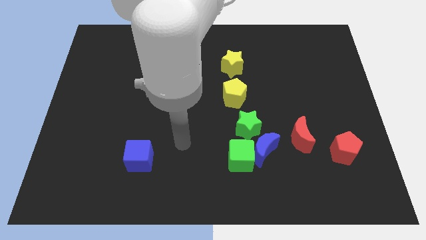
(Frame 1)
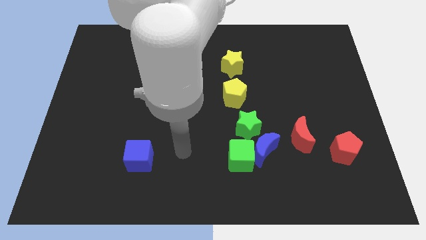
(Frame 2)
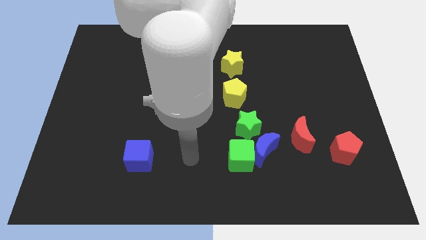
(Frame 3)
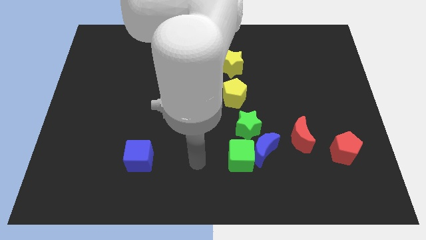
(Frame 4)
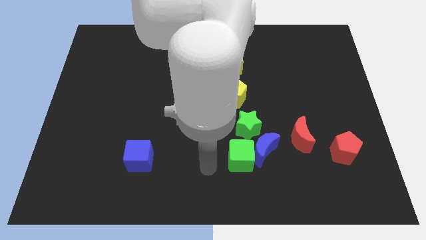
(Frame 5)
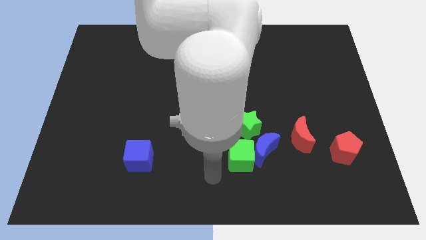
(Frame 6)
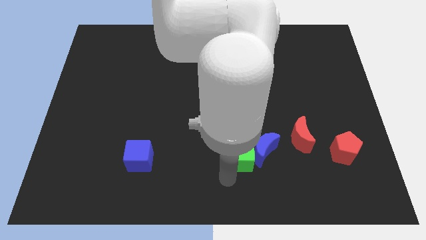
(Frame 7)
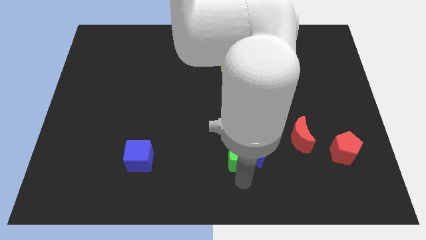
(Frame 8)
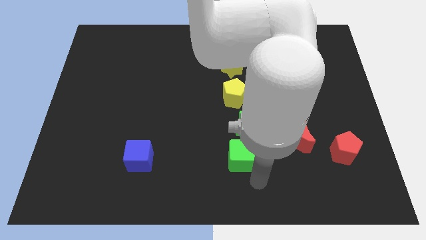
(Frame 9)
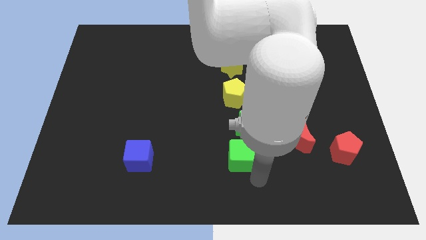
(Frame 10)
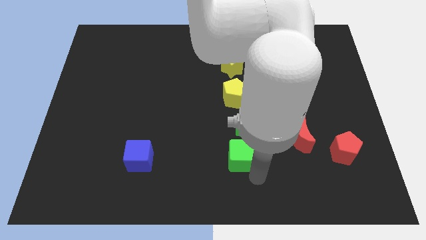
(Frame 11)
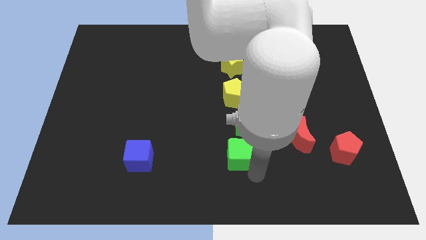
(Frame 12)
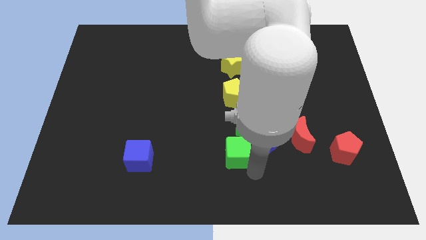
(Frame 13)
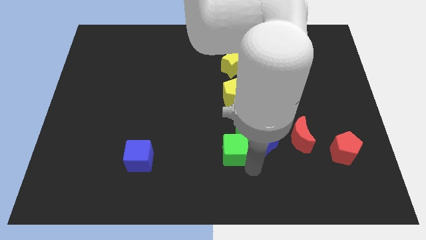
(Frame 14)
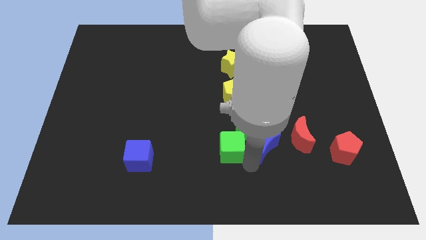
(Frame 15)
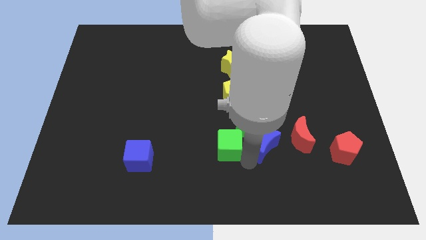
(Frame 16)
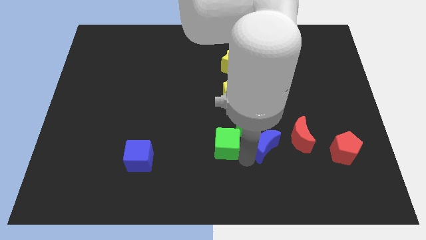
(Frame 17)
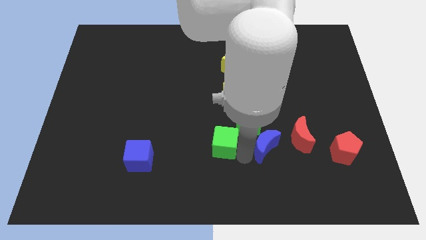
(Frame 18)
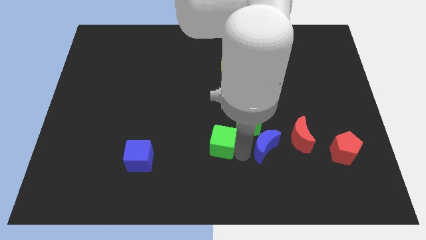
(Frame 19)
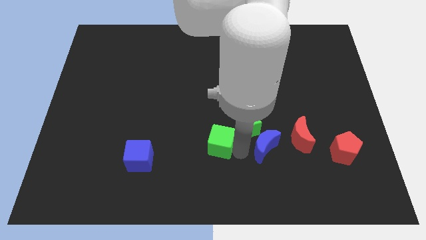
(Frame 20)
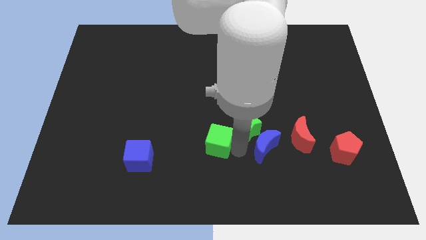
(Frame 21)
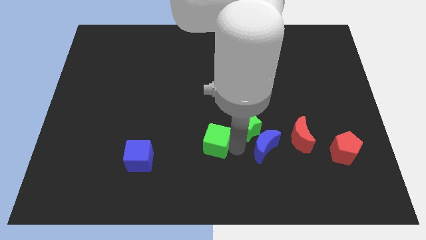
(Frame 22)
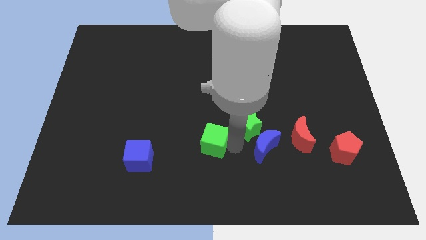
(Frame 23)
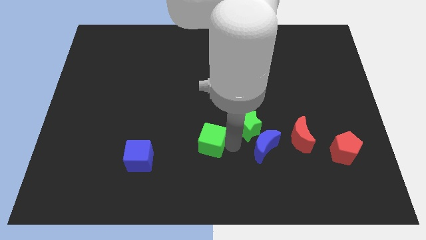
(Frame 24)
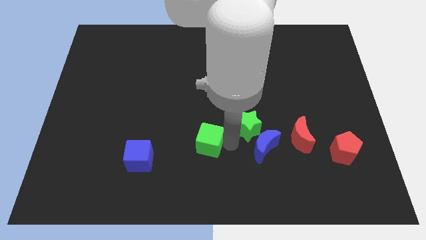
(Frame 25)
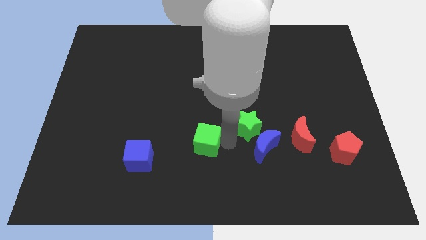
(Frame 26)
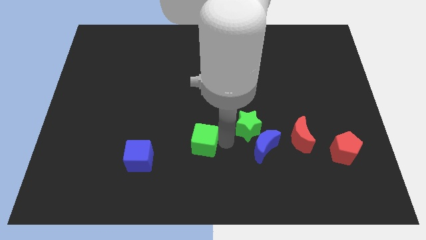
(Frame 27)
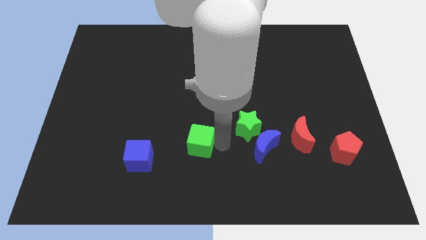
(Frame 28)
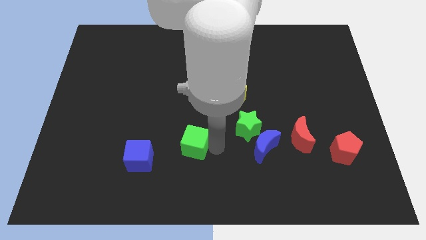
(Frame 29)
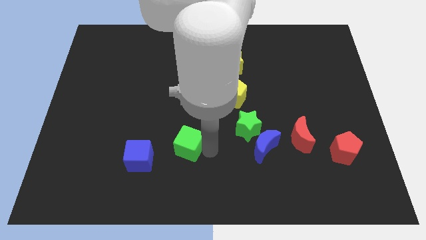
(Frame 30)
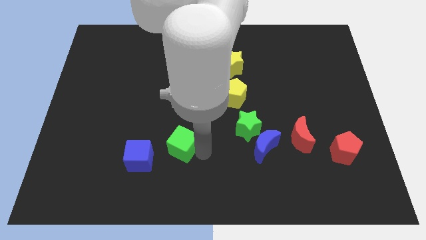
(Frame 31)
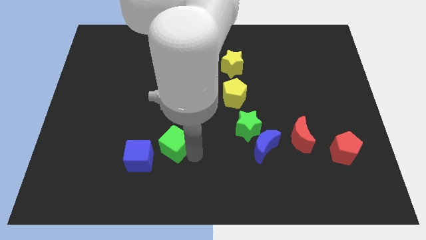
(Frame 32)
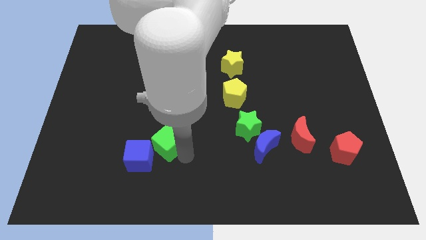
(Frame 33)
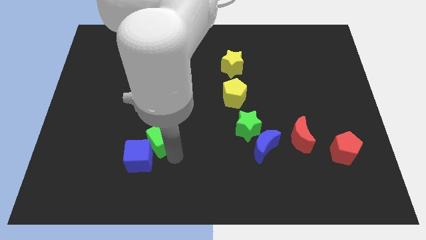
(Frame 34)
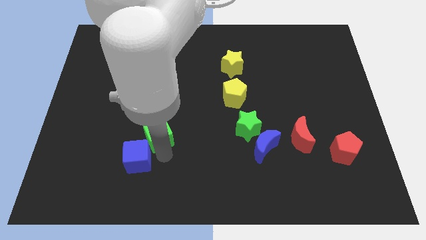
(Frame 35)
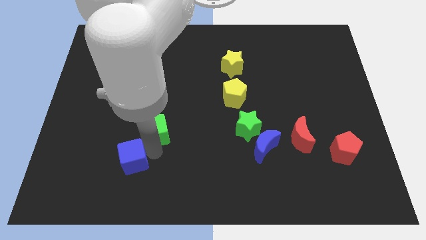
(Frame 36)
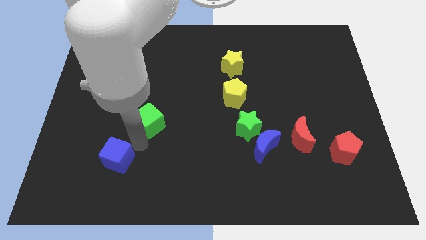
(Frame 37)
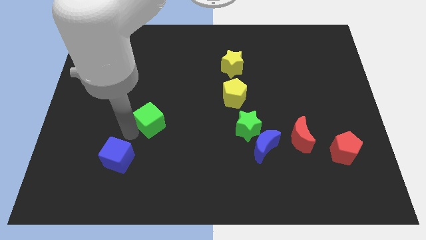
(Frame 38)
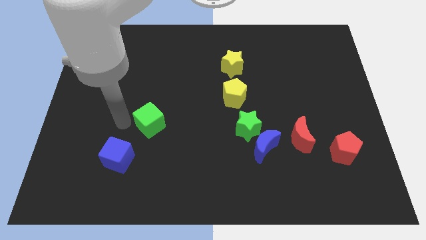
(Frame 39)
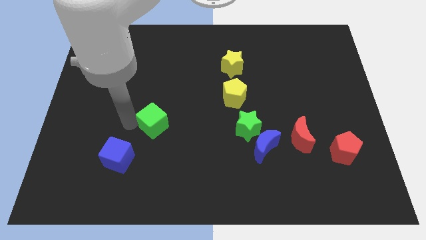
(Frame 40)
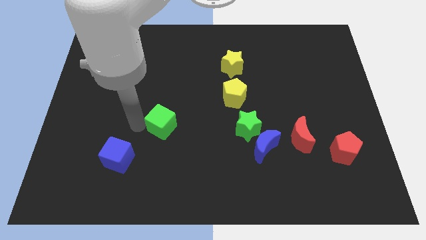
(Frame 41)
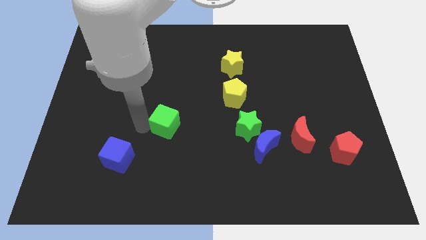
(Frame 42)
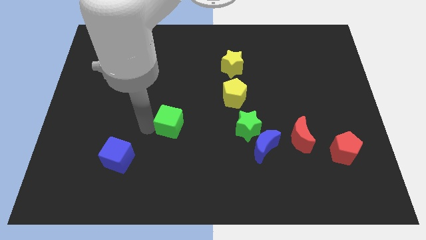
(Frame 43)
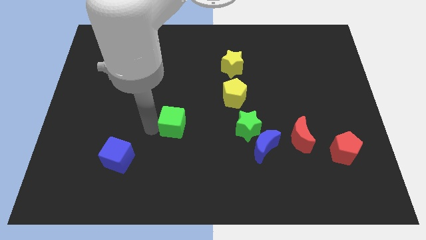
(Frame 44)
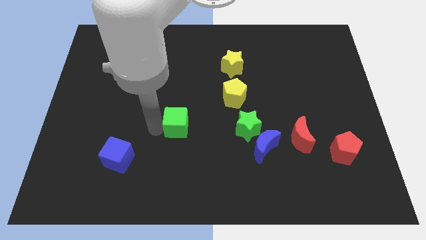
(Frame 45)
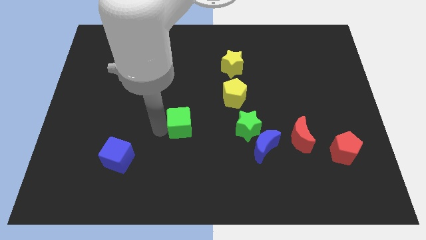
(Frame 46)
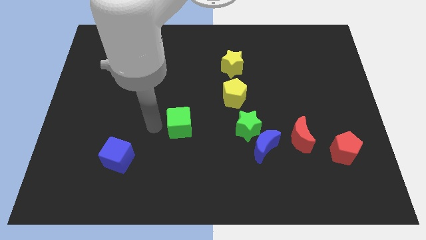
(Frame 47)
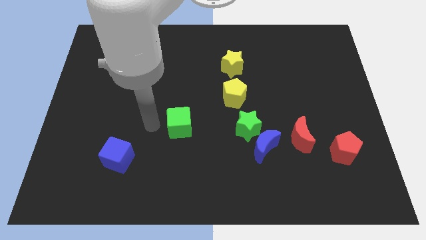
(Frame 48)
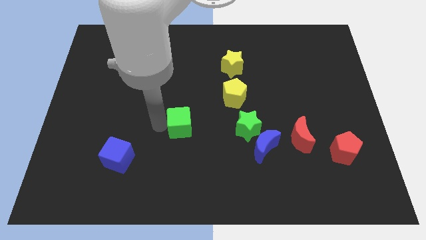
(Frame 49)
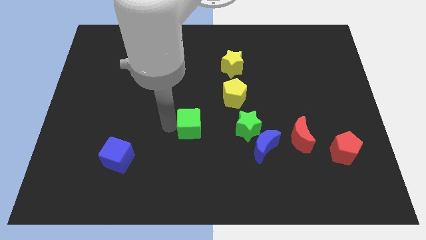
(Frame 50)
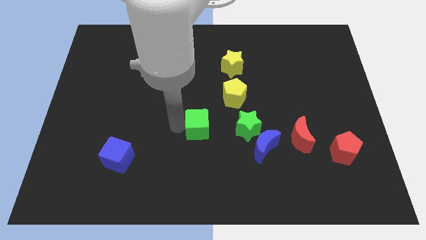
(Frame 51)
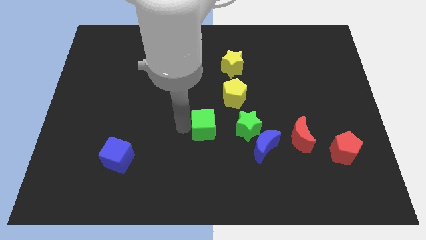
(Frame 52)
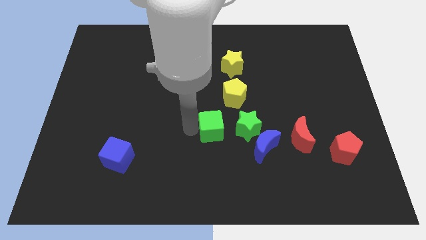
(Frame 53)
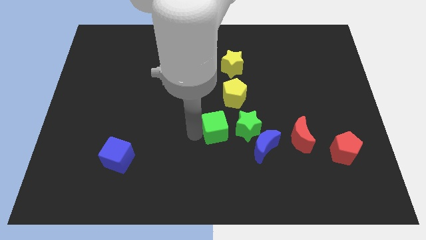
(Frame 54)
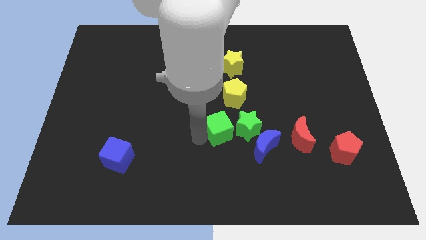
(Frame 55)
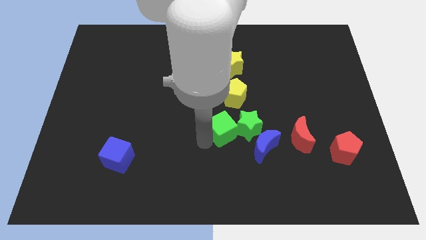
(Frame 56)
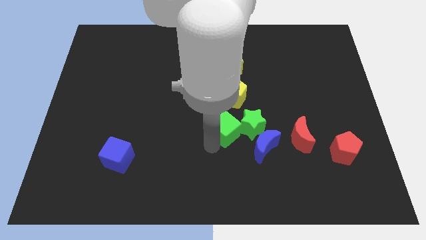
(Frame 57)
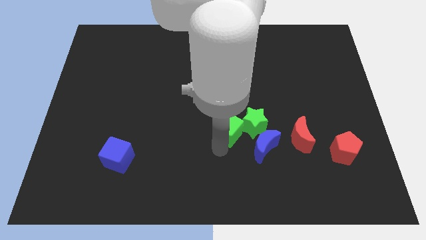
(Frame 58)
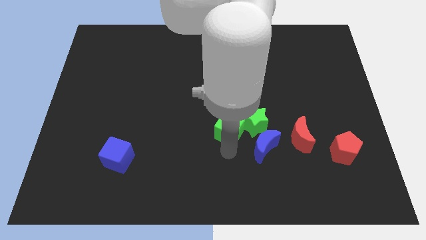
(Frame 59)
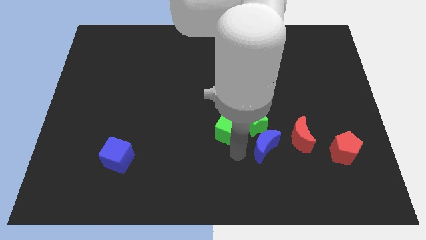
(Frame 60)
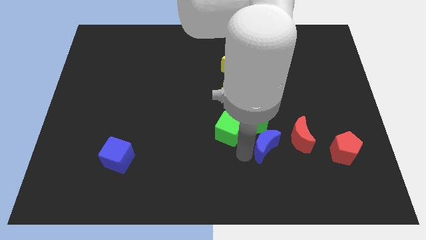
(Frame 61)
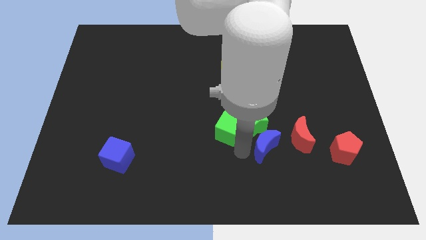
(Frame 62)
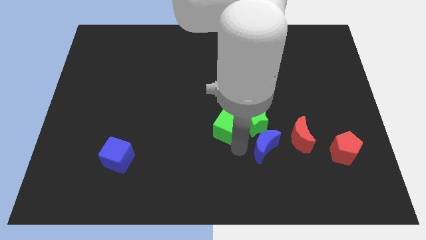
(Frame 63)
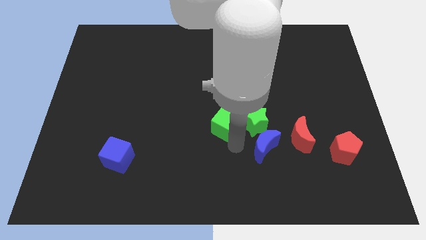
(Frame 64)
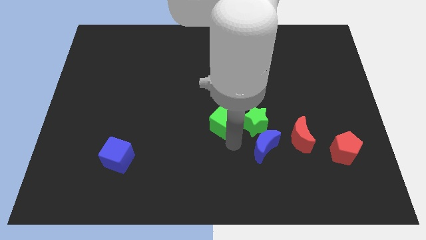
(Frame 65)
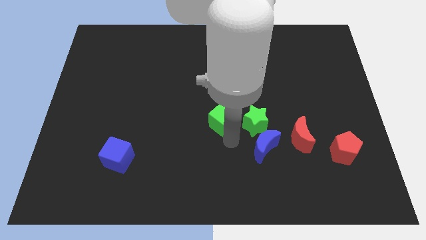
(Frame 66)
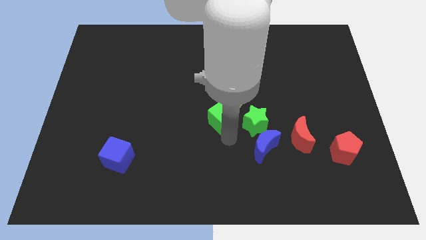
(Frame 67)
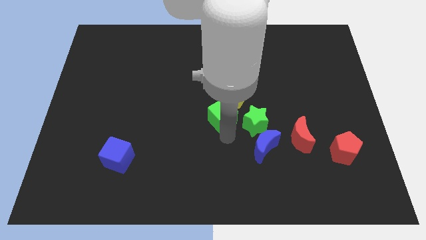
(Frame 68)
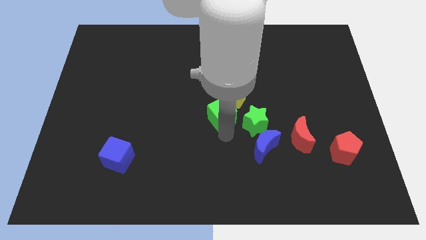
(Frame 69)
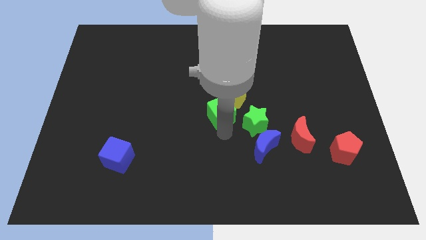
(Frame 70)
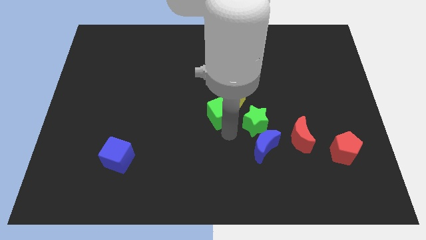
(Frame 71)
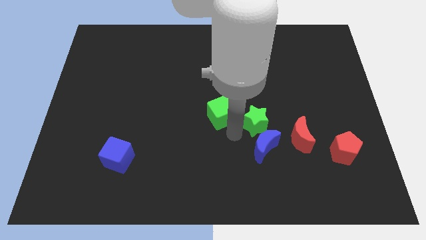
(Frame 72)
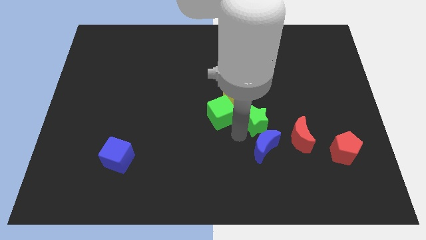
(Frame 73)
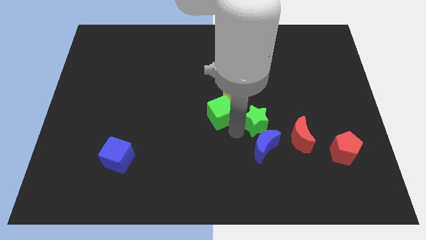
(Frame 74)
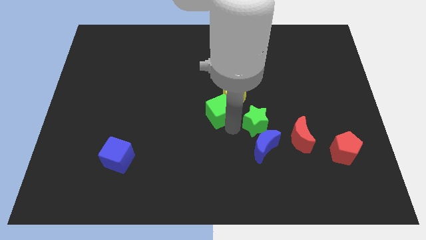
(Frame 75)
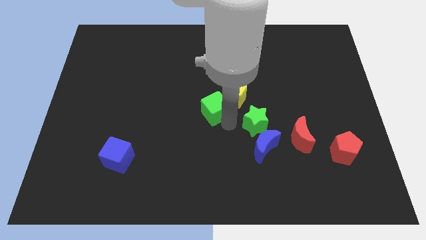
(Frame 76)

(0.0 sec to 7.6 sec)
slide the green cube left of the yellow pentagon
